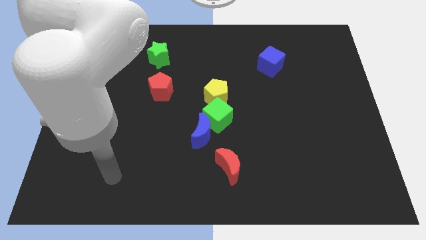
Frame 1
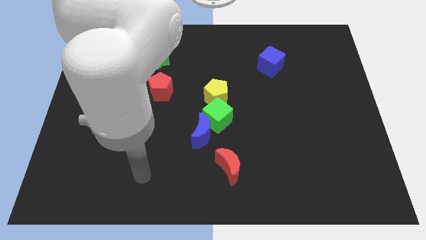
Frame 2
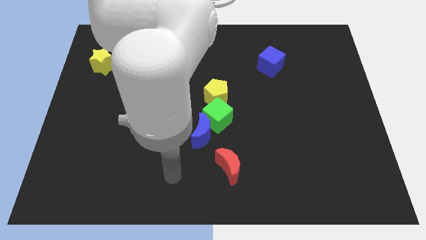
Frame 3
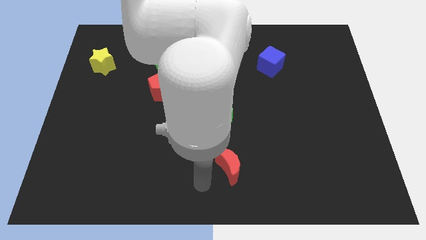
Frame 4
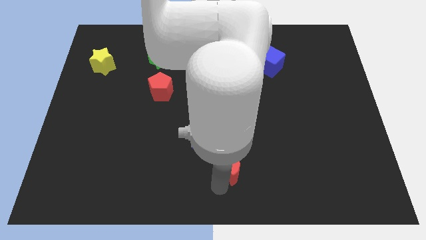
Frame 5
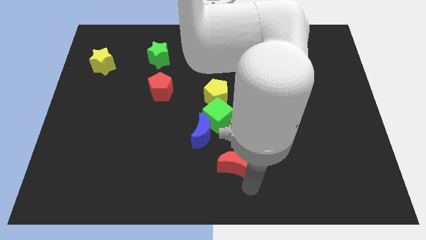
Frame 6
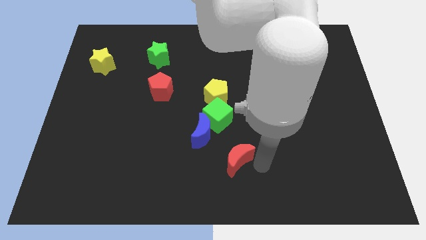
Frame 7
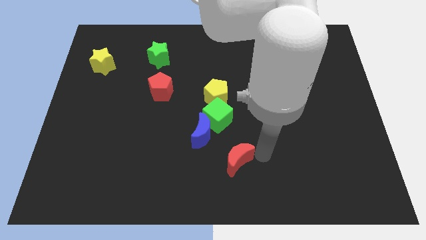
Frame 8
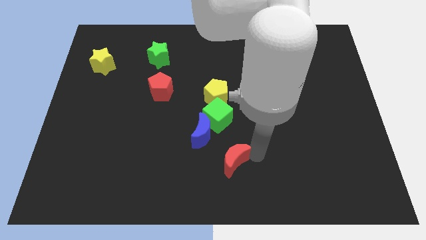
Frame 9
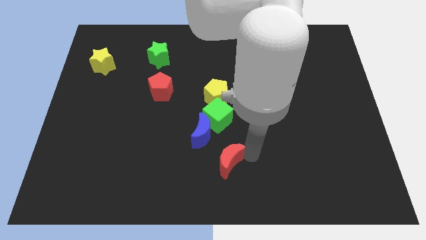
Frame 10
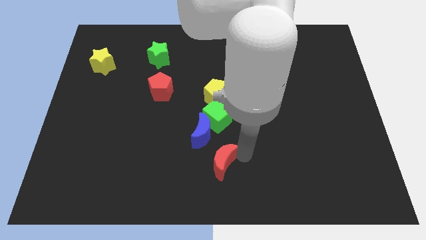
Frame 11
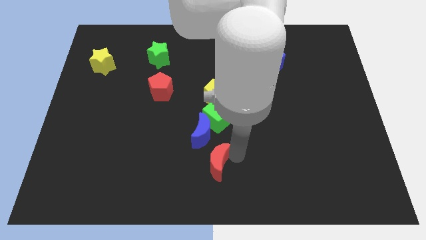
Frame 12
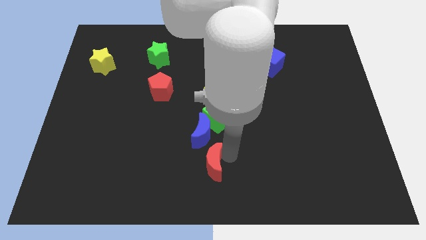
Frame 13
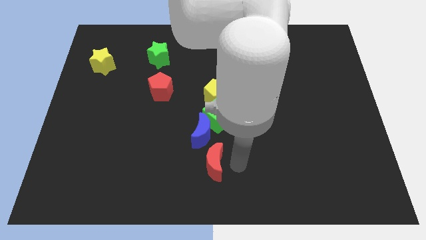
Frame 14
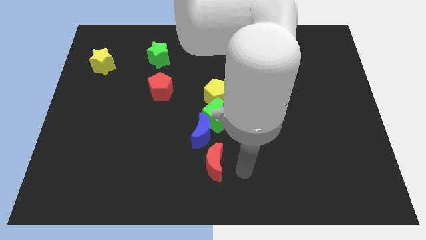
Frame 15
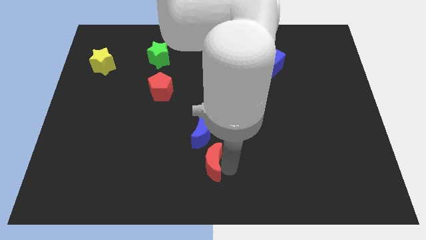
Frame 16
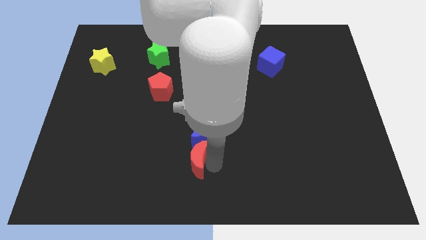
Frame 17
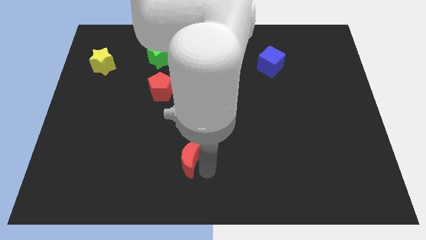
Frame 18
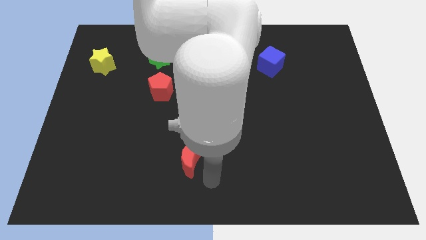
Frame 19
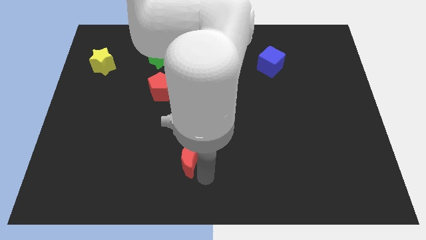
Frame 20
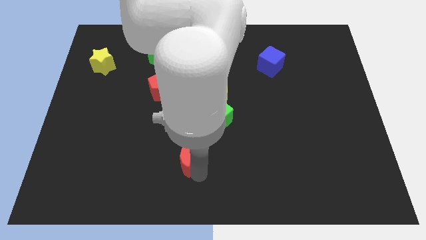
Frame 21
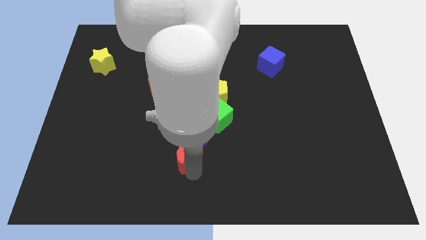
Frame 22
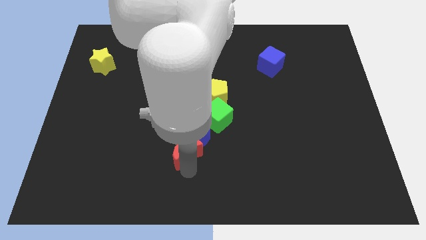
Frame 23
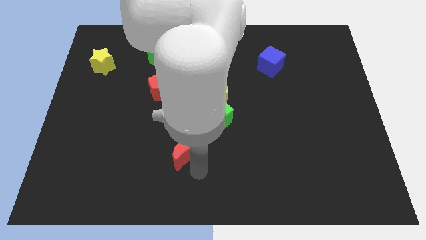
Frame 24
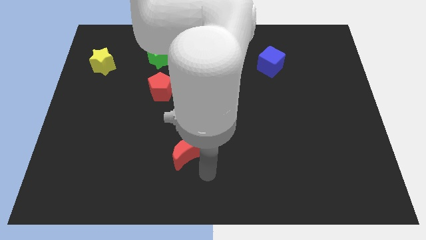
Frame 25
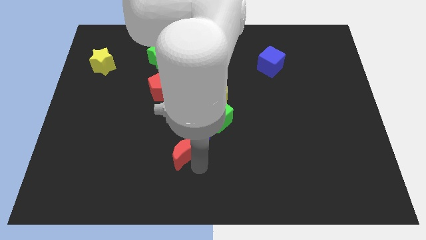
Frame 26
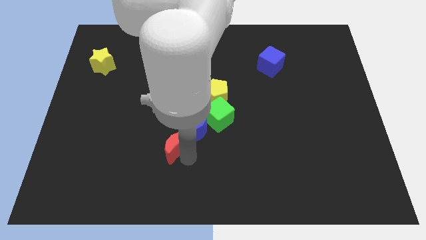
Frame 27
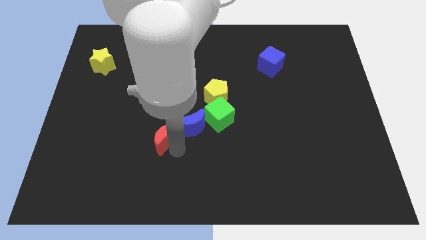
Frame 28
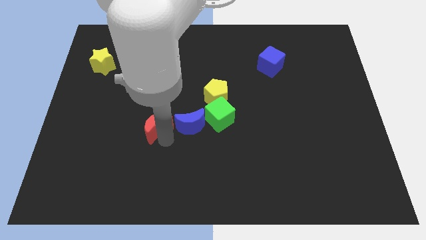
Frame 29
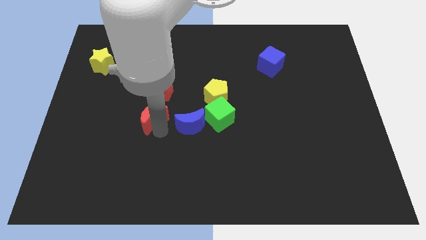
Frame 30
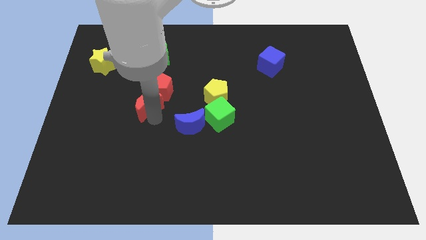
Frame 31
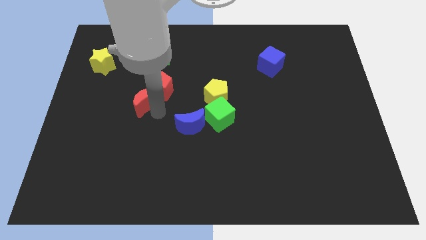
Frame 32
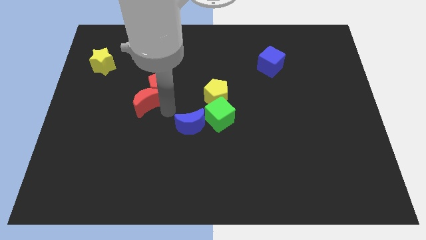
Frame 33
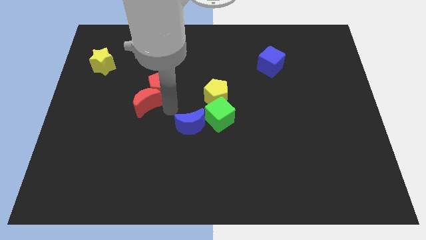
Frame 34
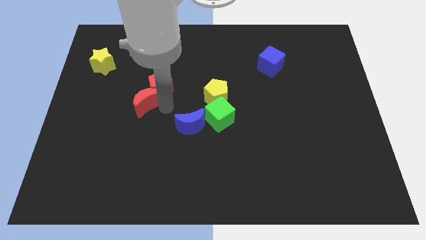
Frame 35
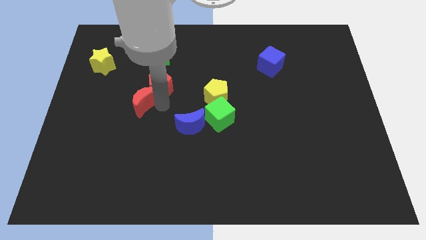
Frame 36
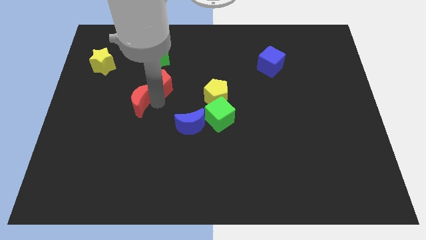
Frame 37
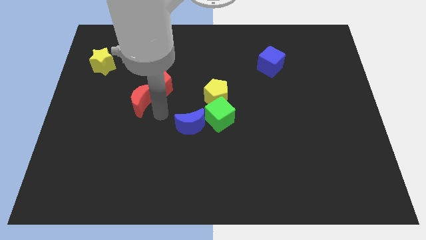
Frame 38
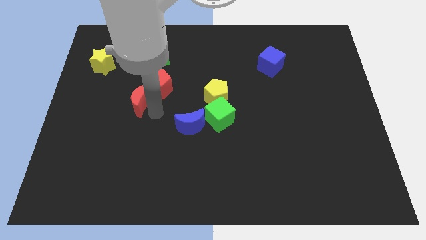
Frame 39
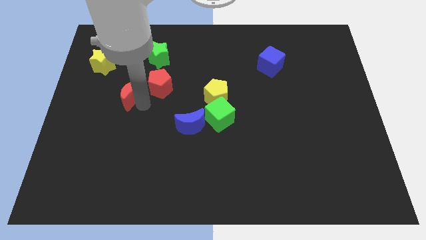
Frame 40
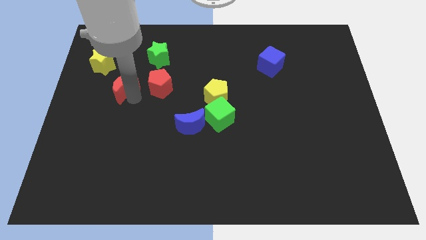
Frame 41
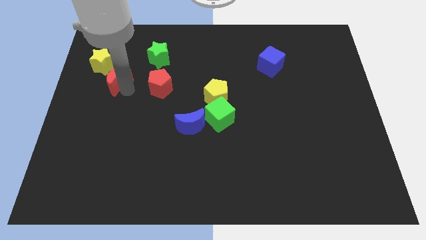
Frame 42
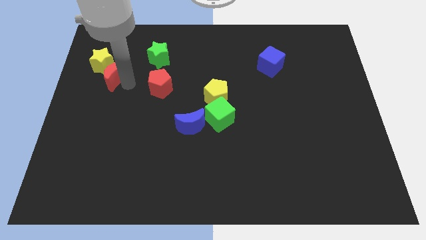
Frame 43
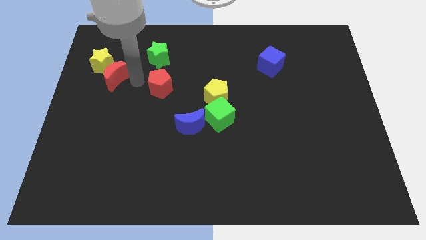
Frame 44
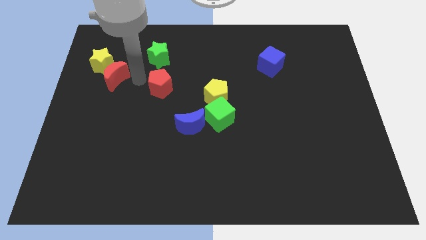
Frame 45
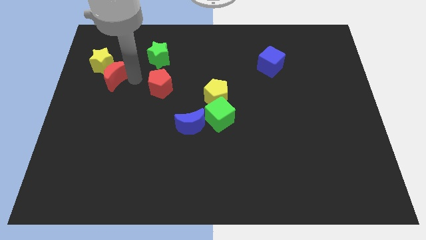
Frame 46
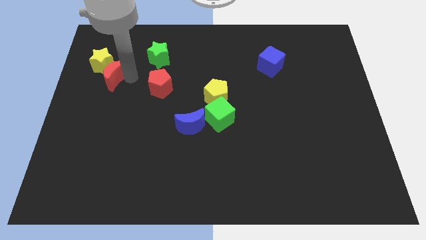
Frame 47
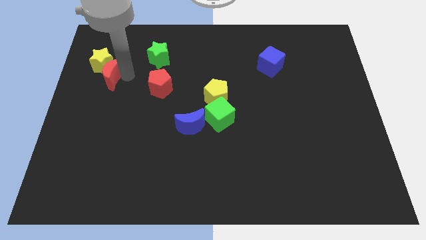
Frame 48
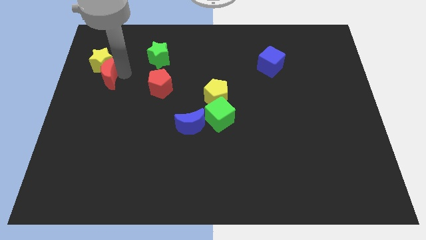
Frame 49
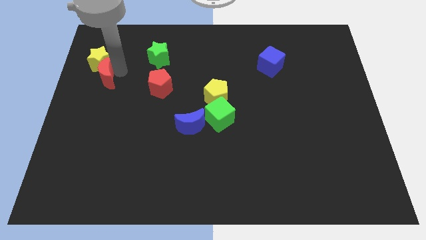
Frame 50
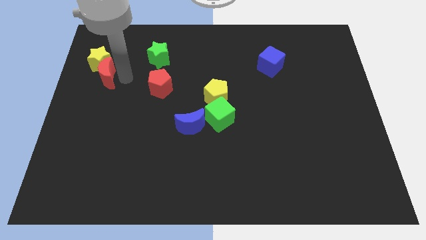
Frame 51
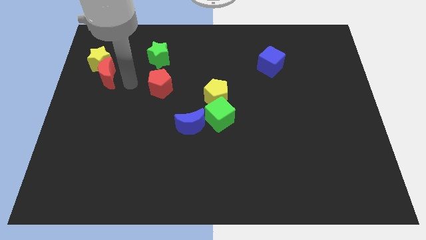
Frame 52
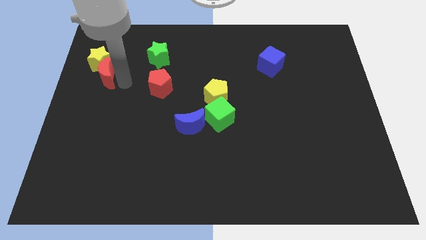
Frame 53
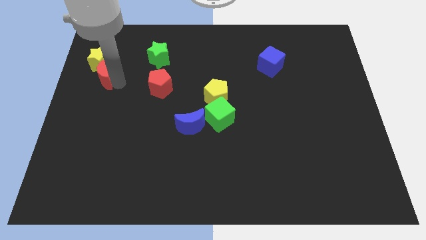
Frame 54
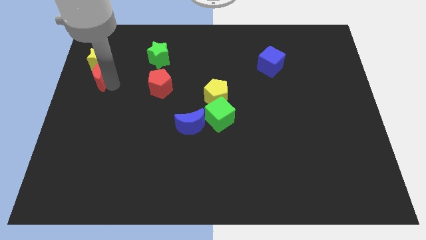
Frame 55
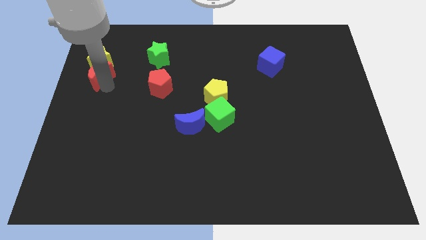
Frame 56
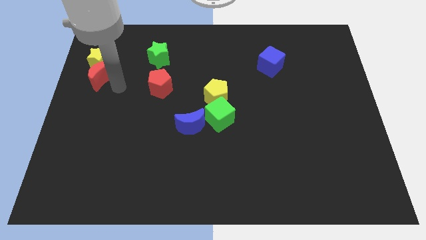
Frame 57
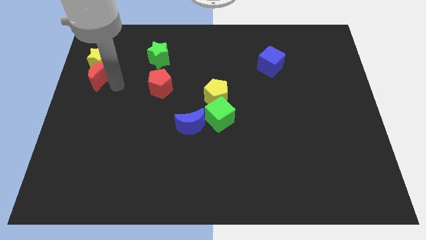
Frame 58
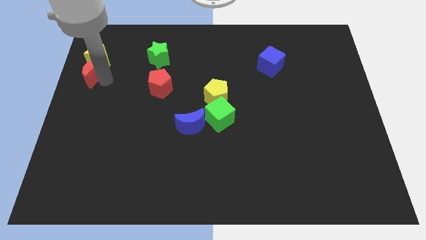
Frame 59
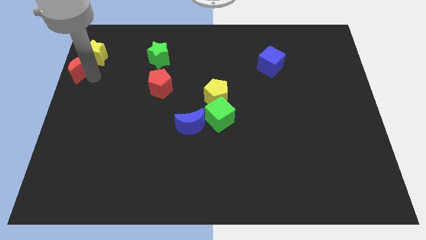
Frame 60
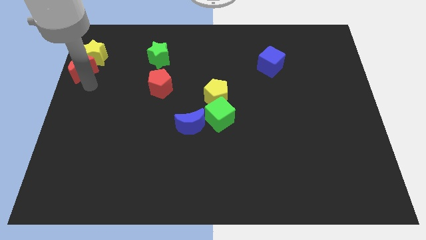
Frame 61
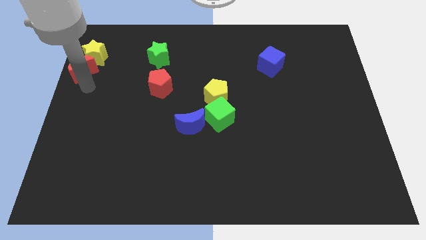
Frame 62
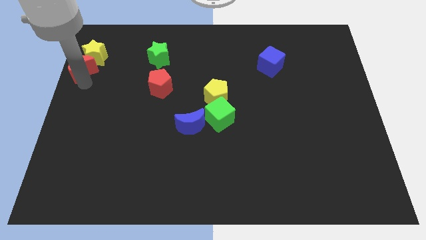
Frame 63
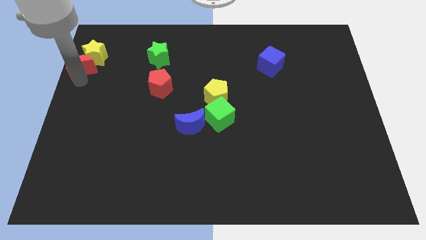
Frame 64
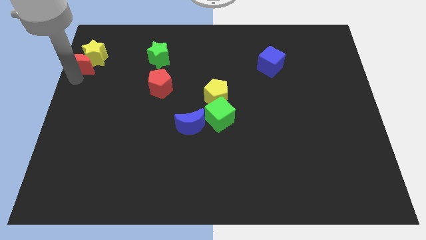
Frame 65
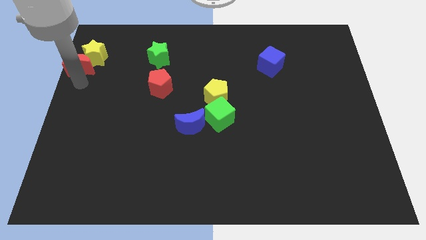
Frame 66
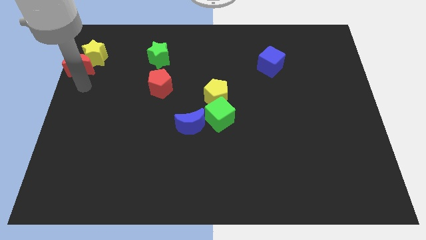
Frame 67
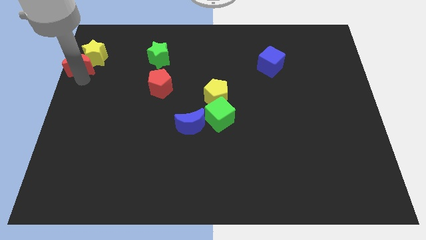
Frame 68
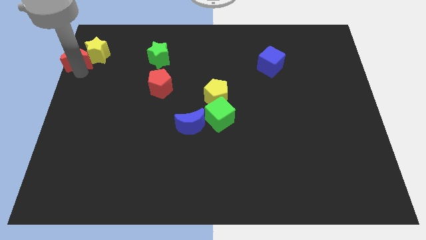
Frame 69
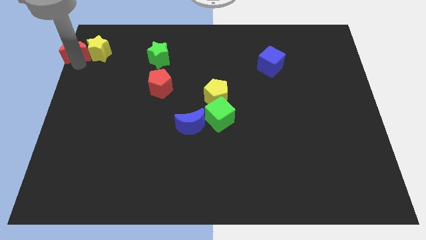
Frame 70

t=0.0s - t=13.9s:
move the red moon to the top left
